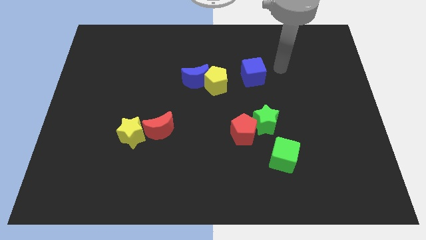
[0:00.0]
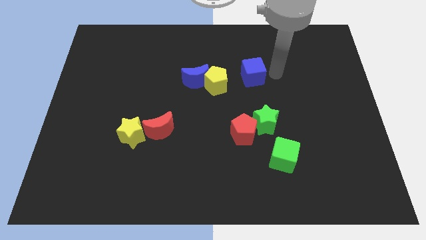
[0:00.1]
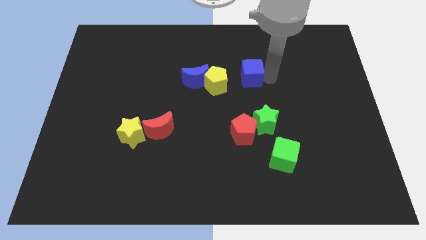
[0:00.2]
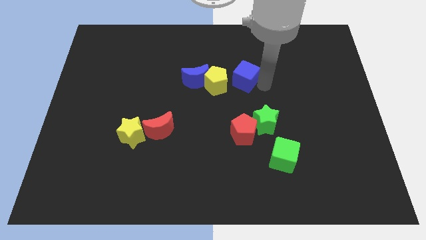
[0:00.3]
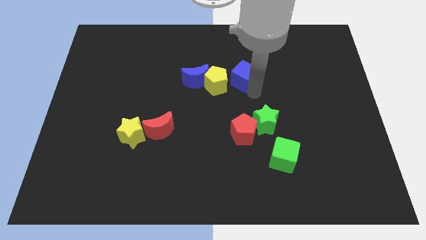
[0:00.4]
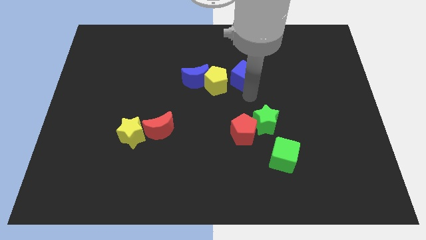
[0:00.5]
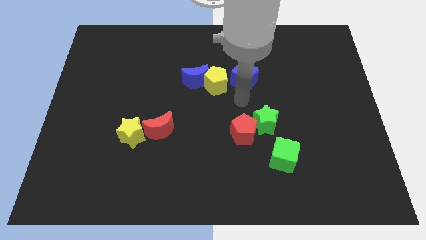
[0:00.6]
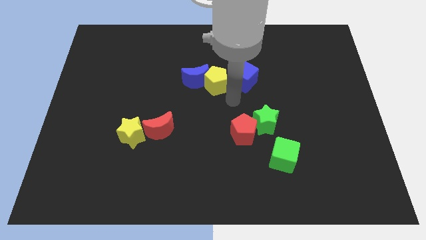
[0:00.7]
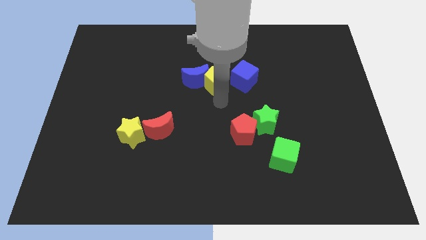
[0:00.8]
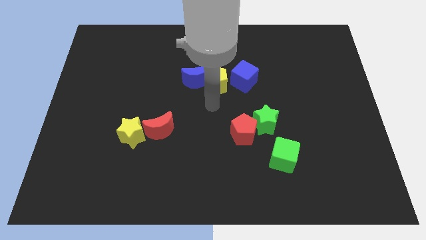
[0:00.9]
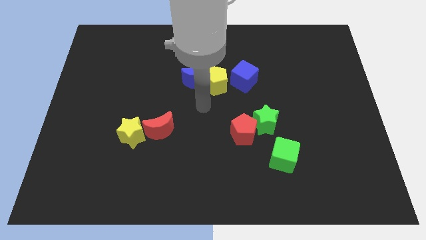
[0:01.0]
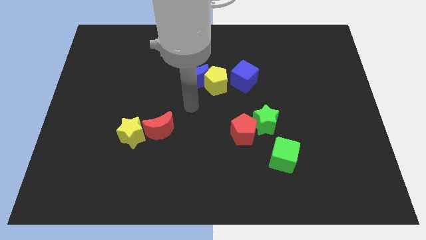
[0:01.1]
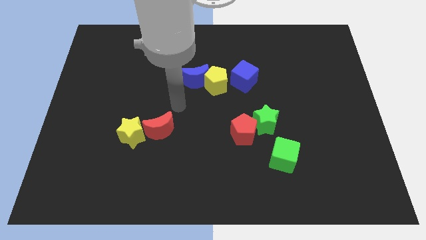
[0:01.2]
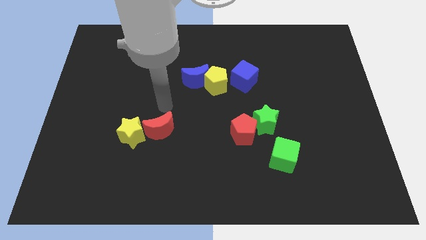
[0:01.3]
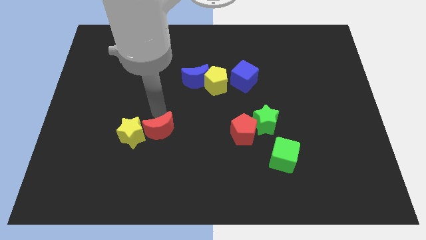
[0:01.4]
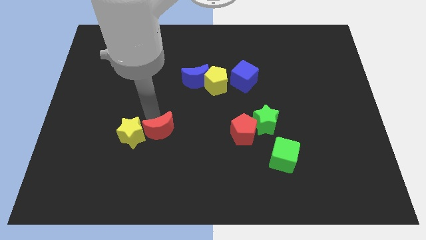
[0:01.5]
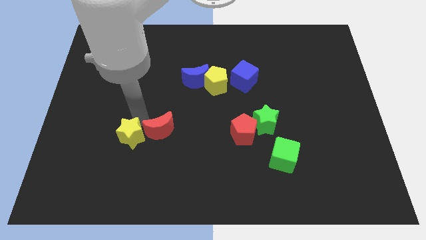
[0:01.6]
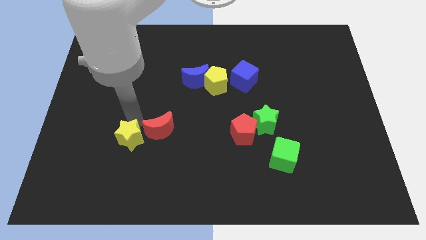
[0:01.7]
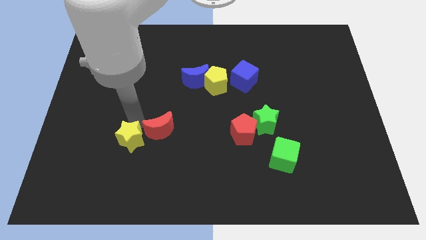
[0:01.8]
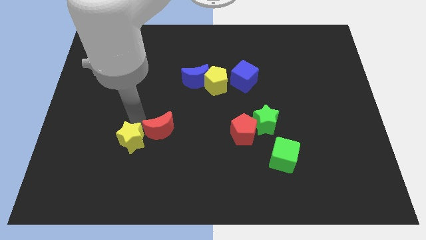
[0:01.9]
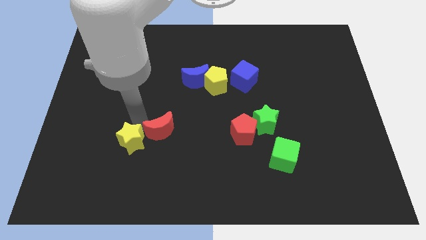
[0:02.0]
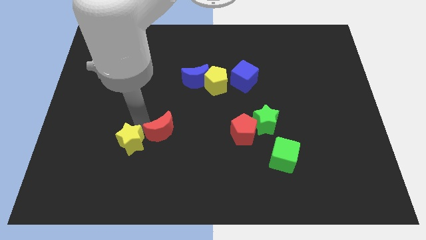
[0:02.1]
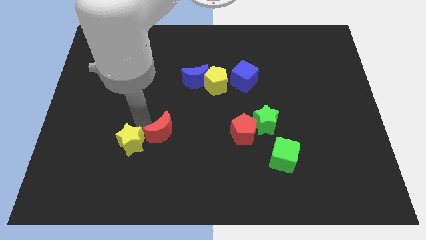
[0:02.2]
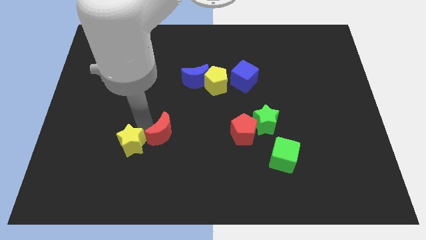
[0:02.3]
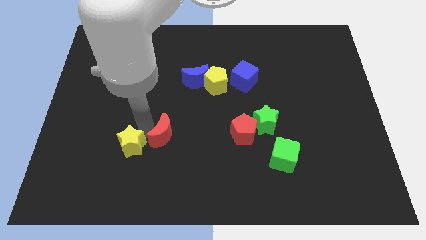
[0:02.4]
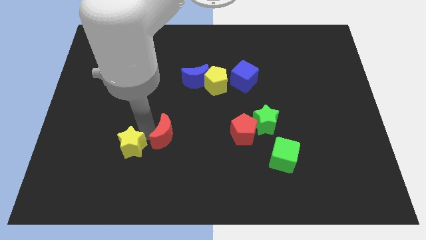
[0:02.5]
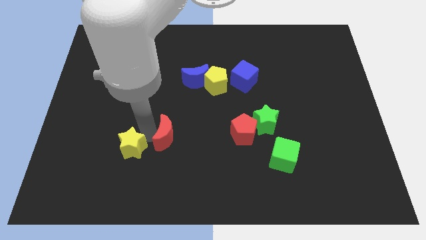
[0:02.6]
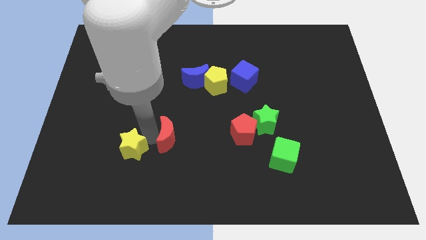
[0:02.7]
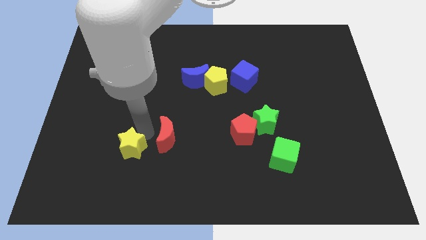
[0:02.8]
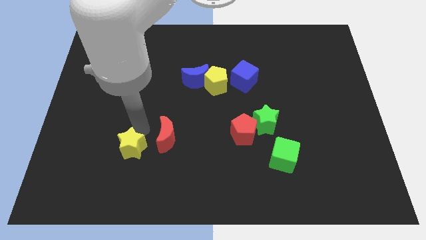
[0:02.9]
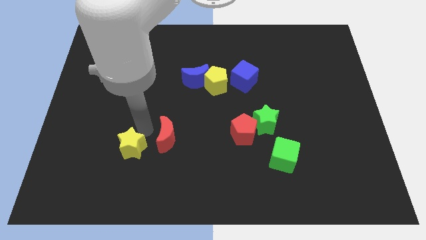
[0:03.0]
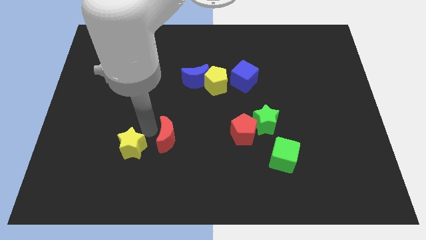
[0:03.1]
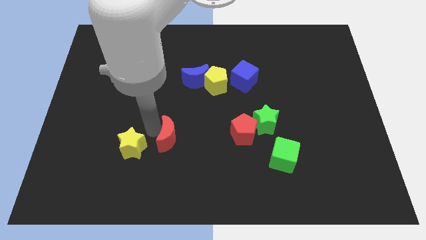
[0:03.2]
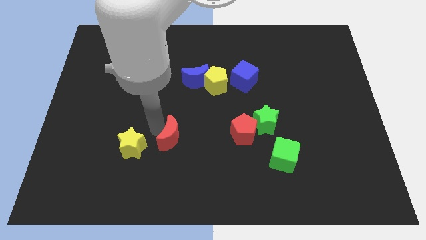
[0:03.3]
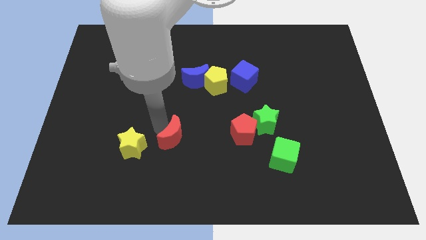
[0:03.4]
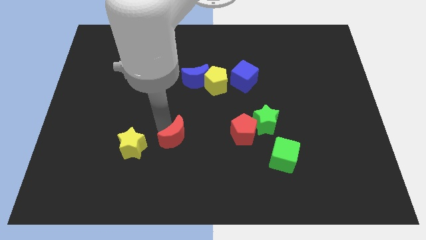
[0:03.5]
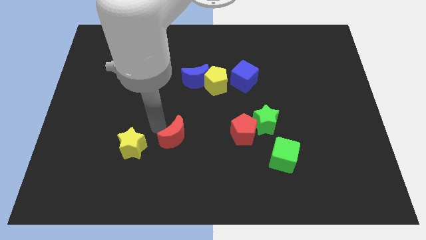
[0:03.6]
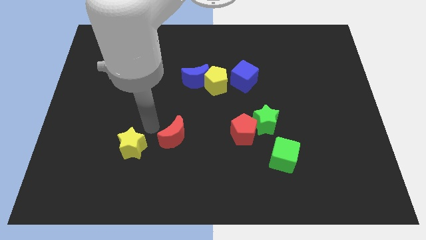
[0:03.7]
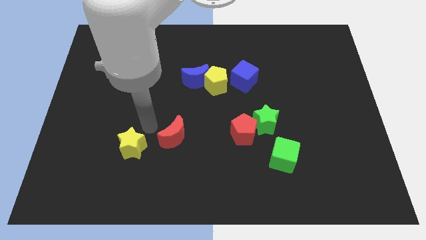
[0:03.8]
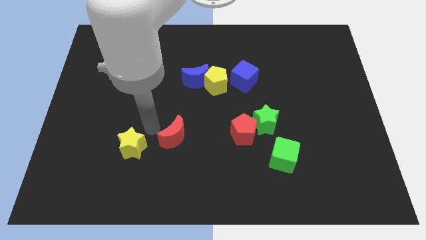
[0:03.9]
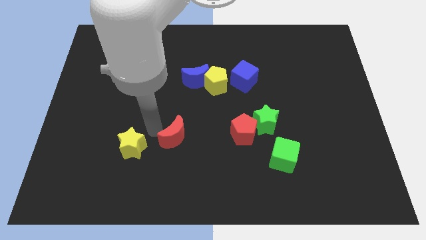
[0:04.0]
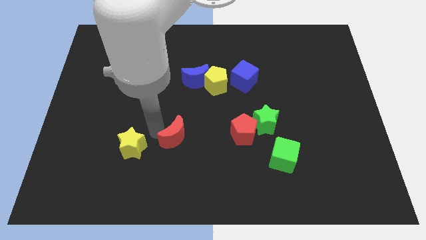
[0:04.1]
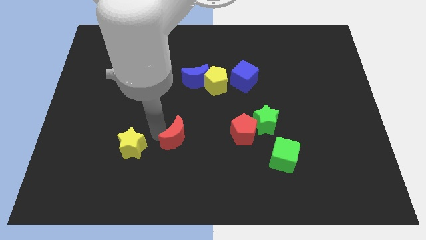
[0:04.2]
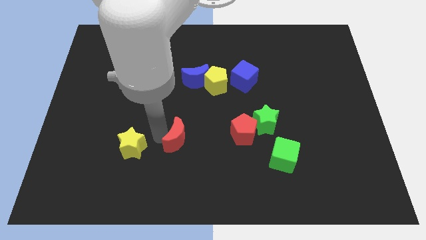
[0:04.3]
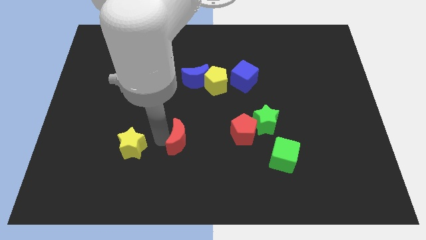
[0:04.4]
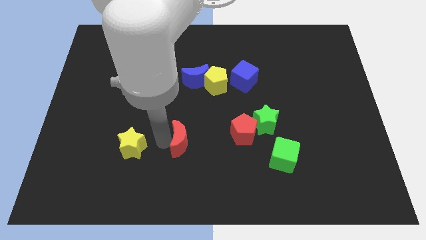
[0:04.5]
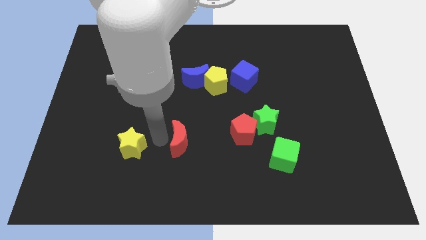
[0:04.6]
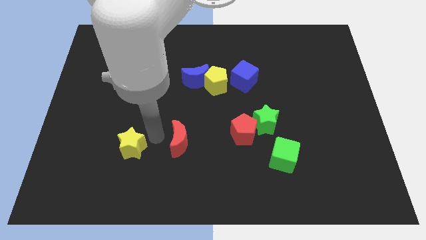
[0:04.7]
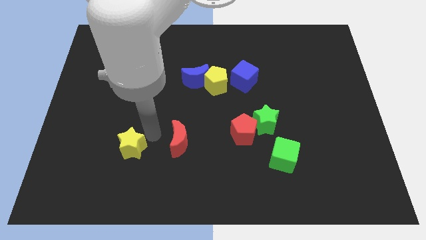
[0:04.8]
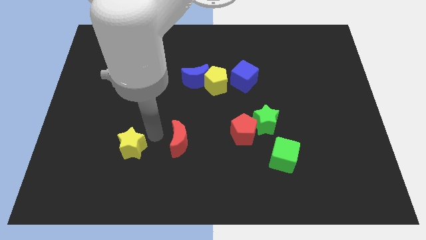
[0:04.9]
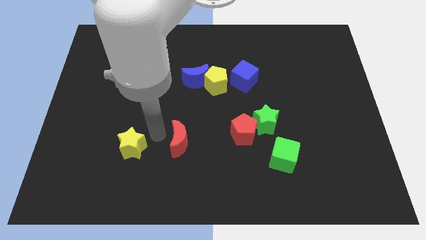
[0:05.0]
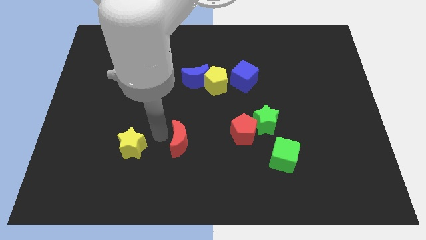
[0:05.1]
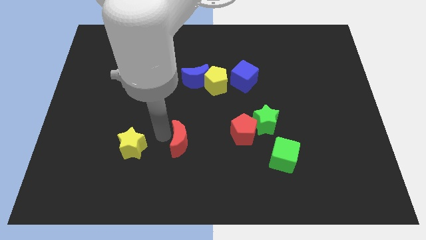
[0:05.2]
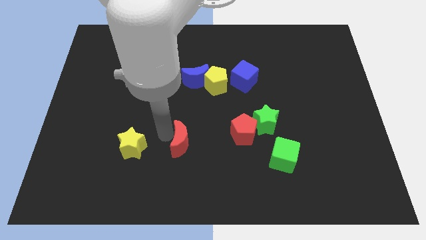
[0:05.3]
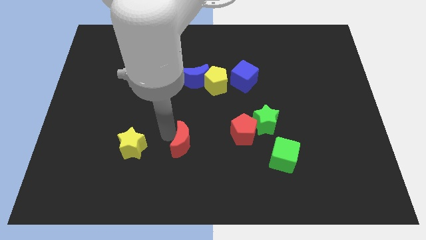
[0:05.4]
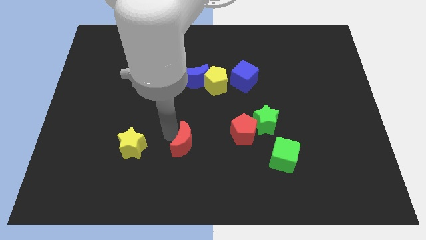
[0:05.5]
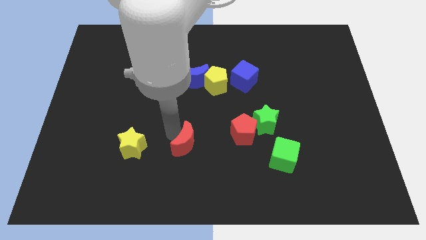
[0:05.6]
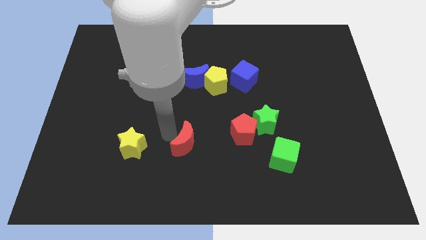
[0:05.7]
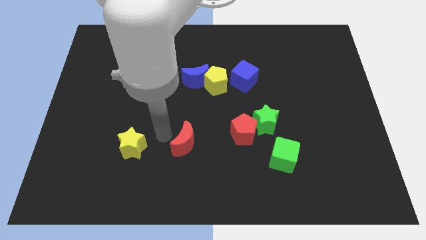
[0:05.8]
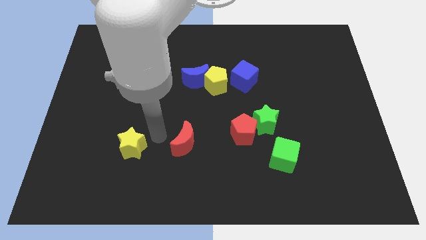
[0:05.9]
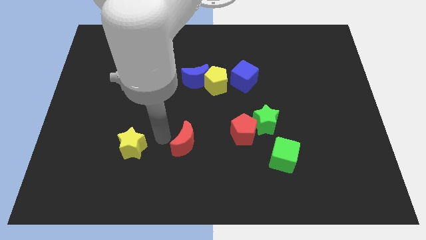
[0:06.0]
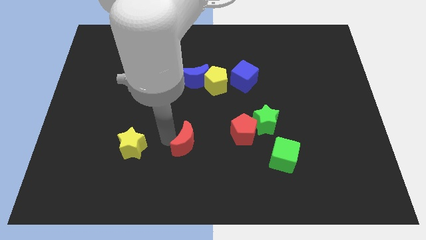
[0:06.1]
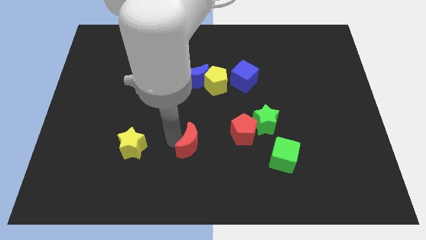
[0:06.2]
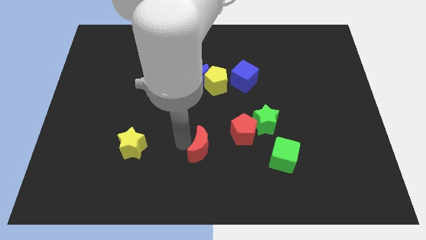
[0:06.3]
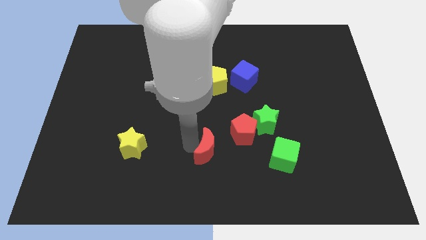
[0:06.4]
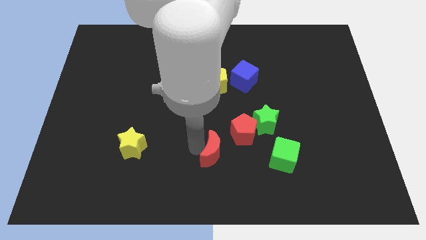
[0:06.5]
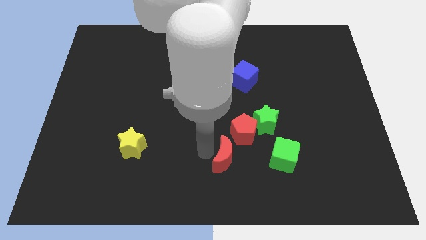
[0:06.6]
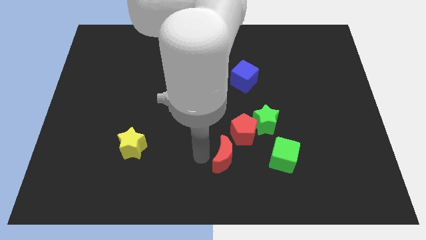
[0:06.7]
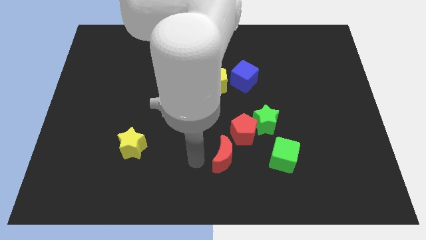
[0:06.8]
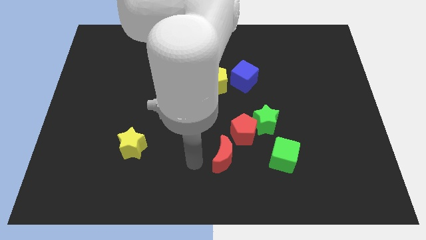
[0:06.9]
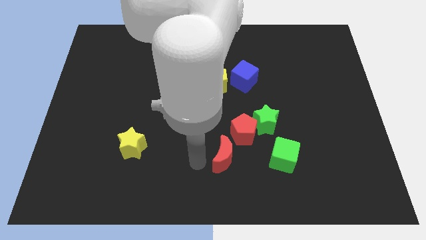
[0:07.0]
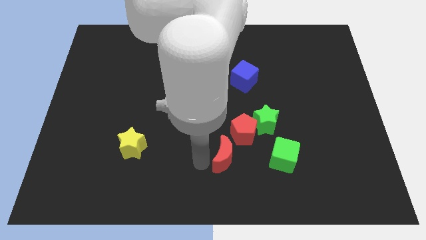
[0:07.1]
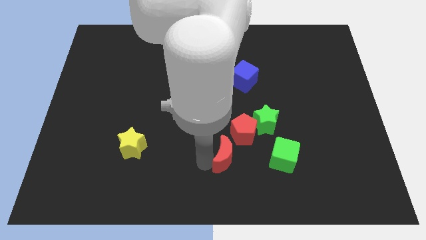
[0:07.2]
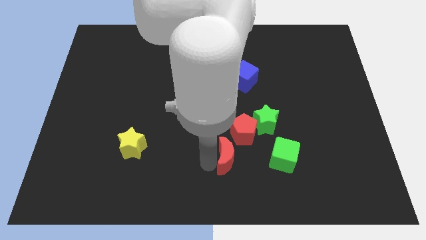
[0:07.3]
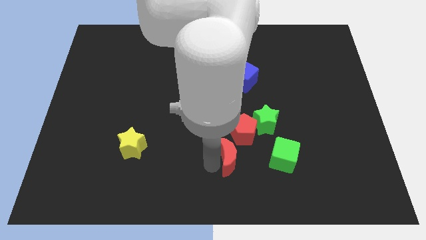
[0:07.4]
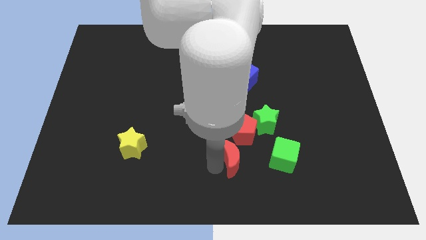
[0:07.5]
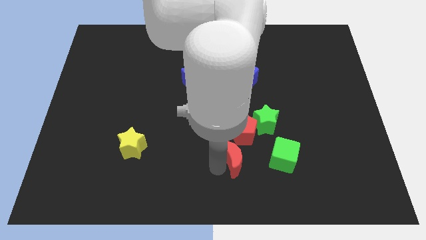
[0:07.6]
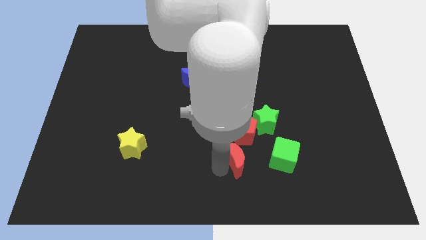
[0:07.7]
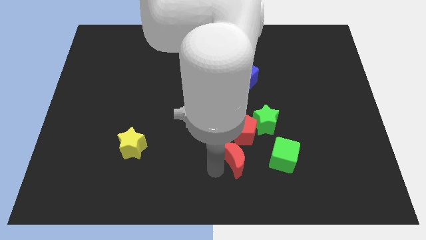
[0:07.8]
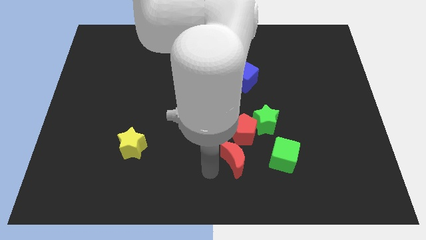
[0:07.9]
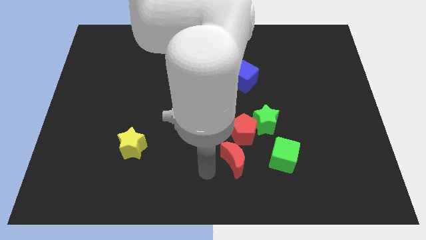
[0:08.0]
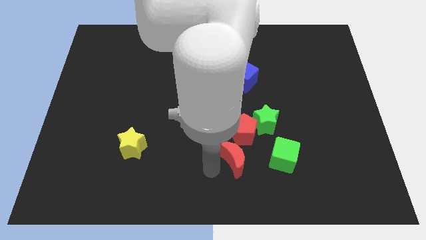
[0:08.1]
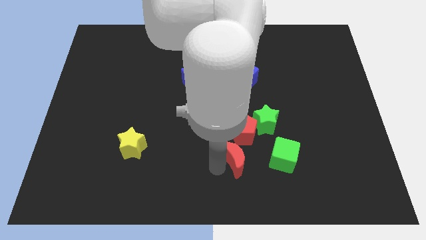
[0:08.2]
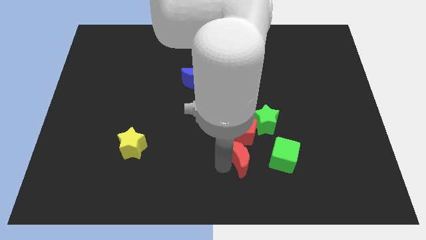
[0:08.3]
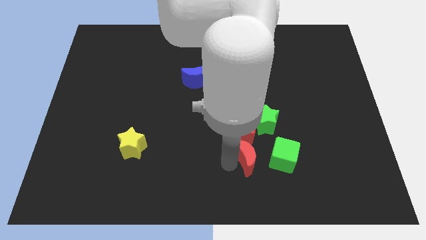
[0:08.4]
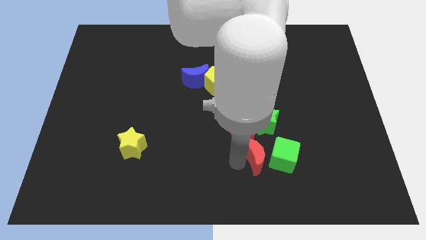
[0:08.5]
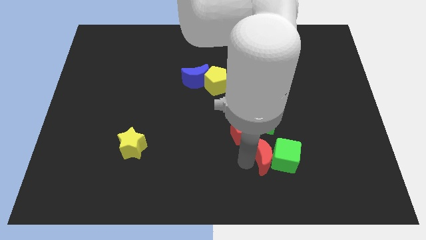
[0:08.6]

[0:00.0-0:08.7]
move the red moon right
